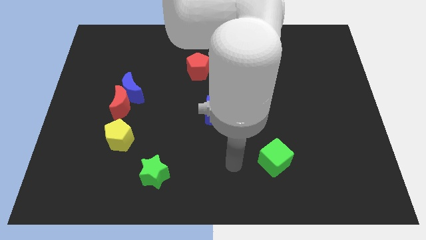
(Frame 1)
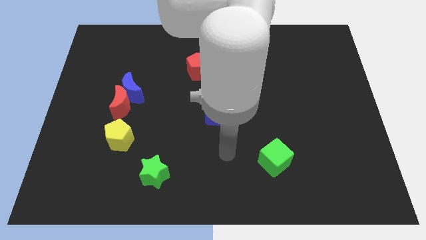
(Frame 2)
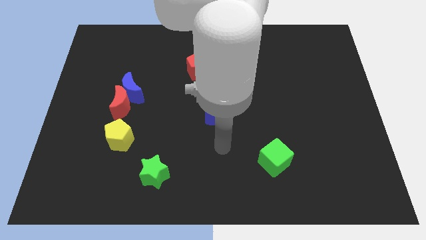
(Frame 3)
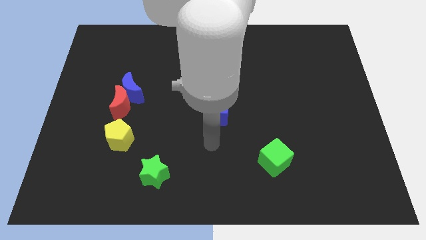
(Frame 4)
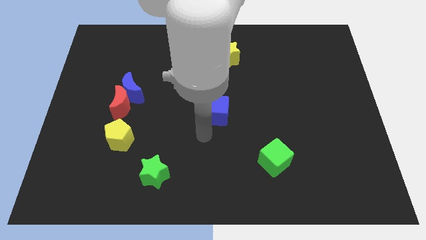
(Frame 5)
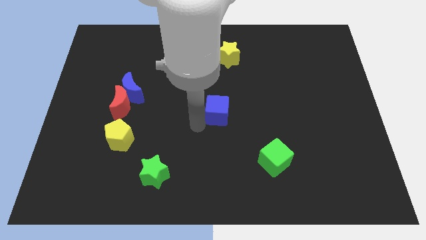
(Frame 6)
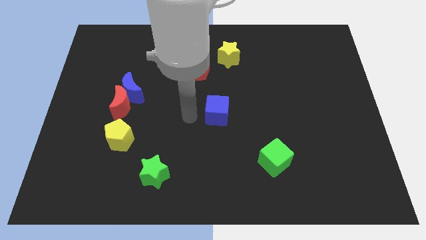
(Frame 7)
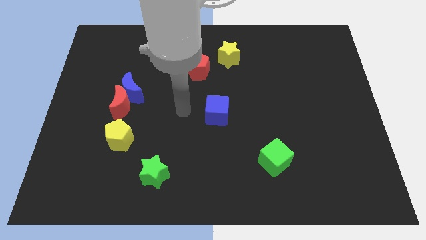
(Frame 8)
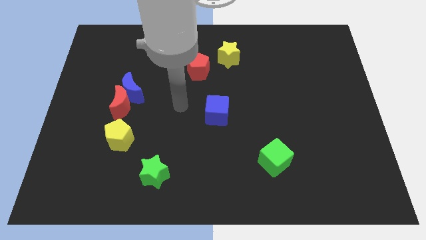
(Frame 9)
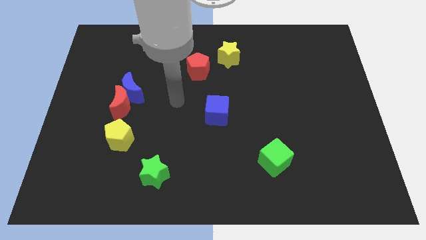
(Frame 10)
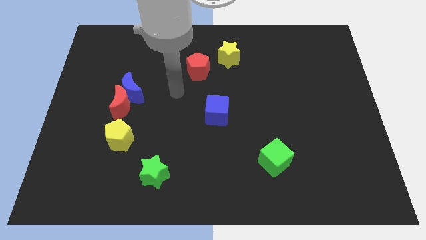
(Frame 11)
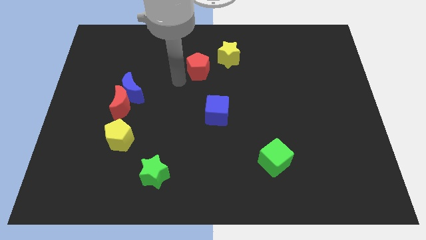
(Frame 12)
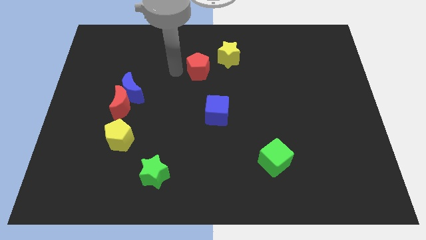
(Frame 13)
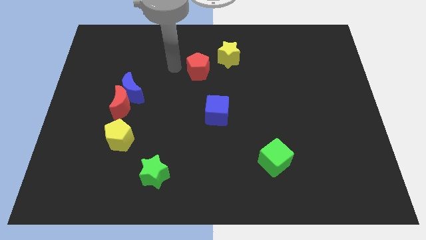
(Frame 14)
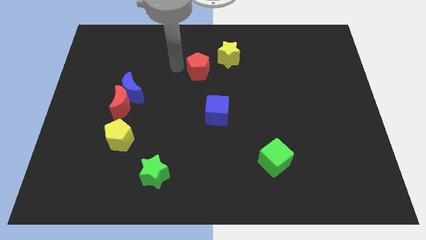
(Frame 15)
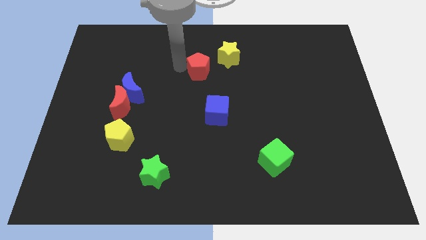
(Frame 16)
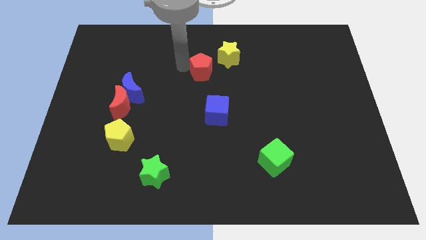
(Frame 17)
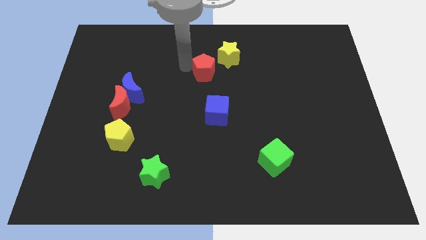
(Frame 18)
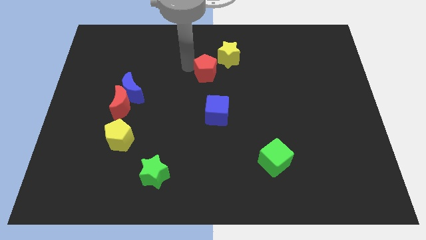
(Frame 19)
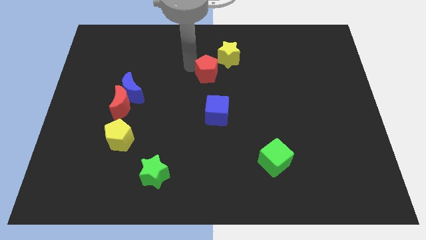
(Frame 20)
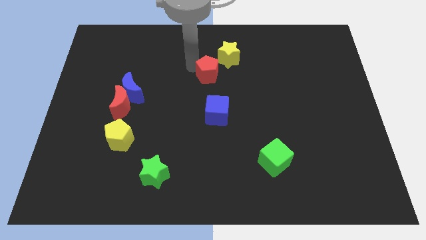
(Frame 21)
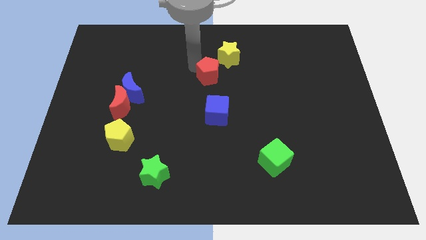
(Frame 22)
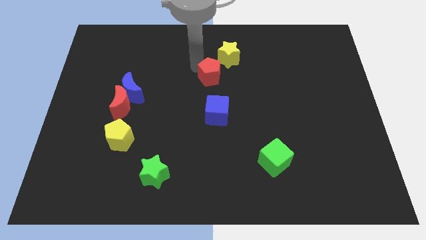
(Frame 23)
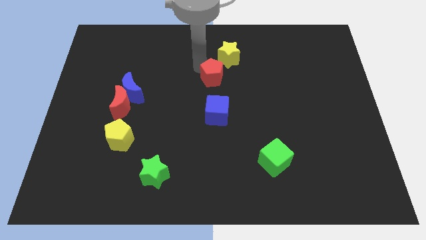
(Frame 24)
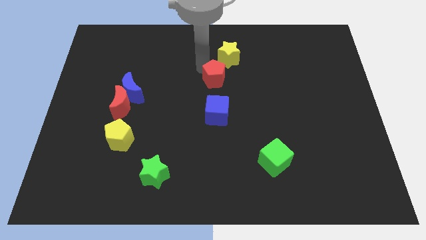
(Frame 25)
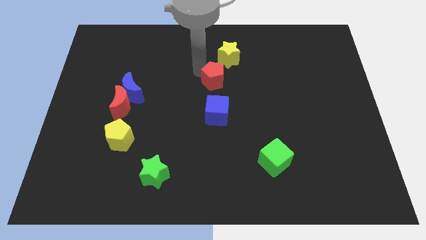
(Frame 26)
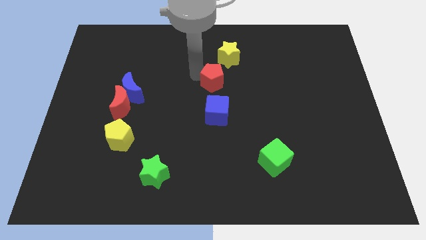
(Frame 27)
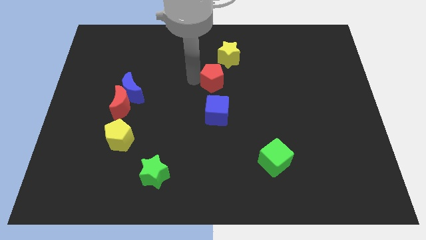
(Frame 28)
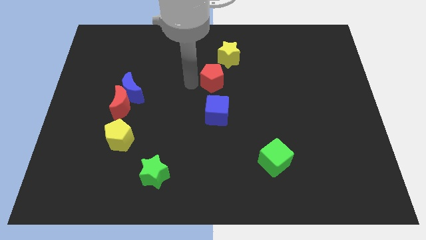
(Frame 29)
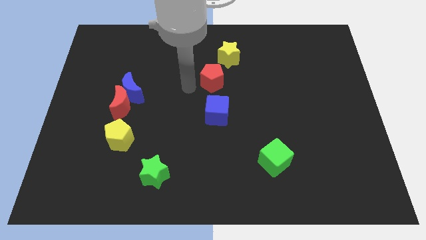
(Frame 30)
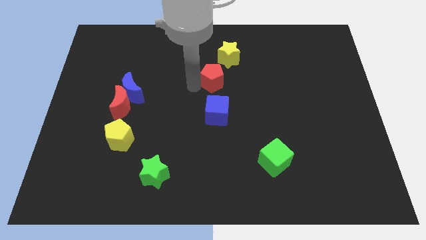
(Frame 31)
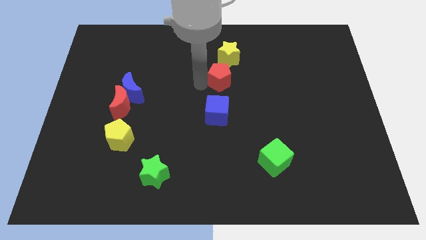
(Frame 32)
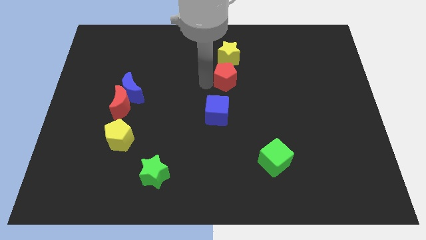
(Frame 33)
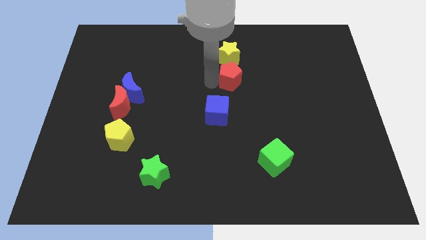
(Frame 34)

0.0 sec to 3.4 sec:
slightly push the red pentagon to the right

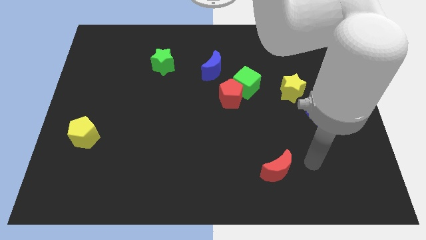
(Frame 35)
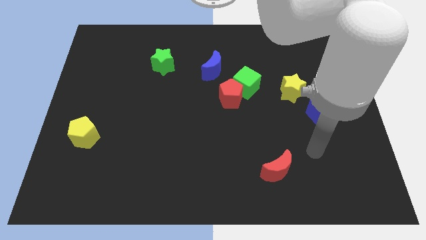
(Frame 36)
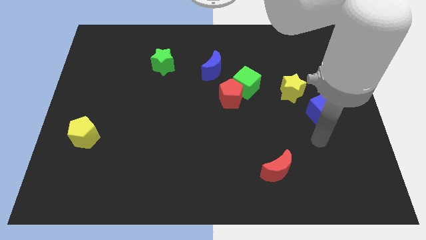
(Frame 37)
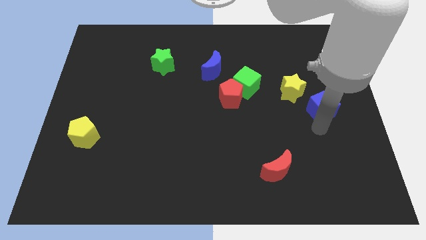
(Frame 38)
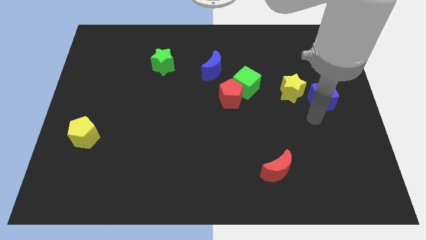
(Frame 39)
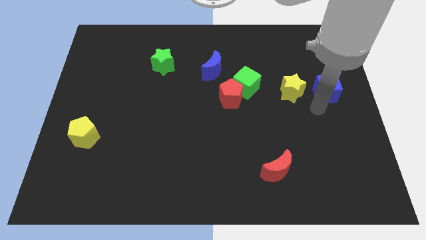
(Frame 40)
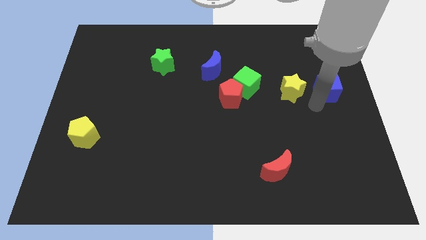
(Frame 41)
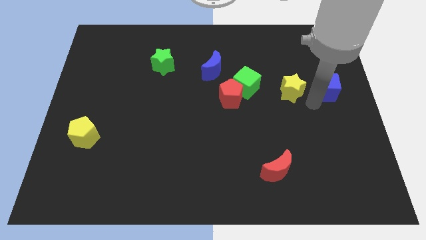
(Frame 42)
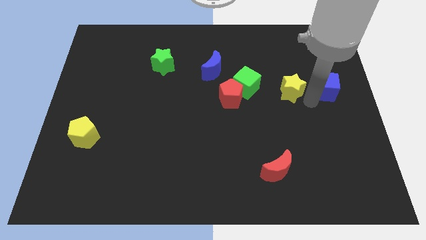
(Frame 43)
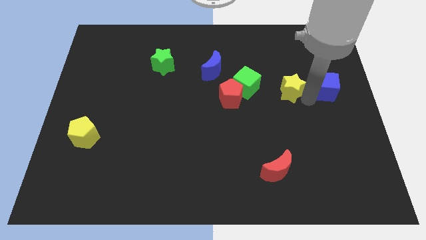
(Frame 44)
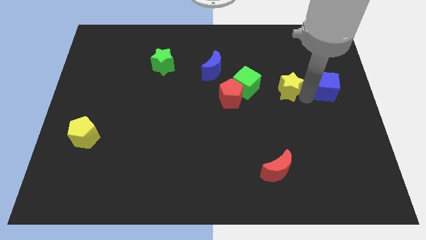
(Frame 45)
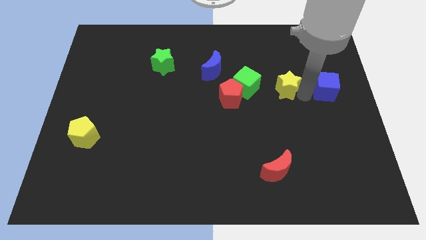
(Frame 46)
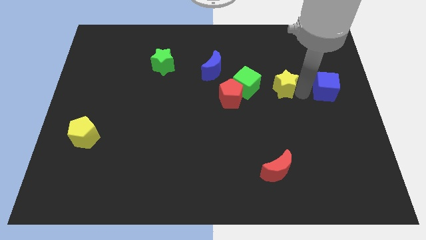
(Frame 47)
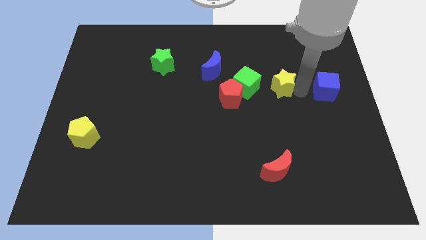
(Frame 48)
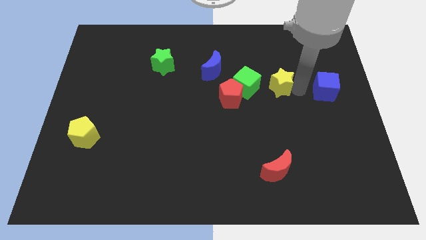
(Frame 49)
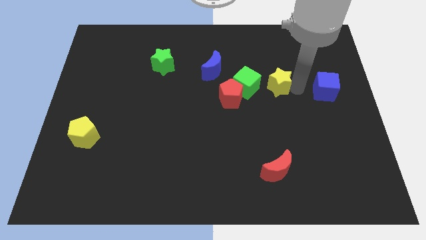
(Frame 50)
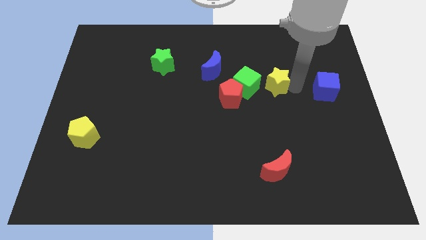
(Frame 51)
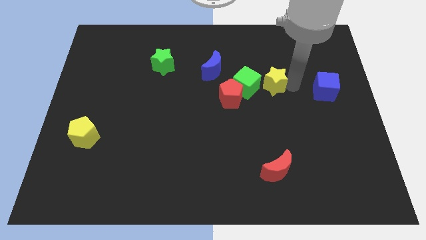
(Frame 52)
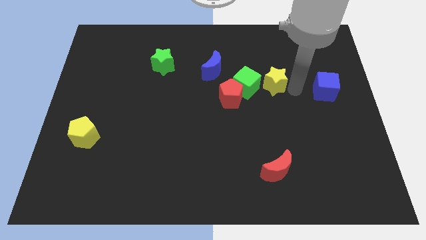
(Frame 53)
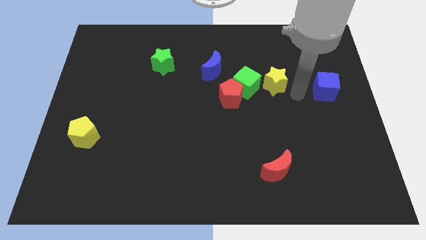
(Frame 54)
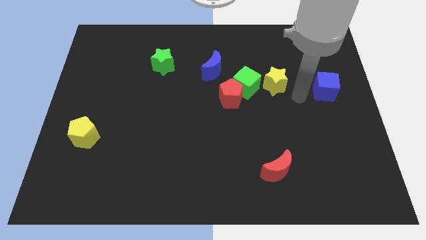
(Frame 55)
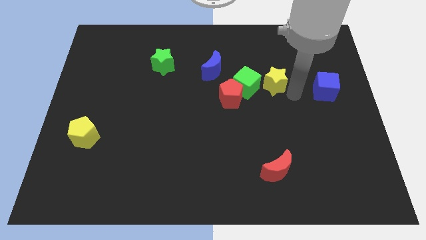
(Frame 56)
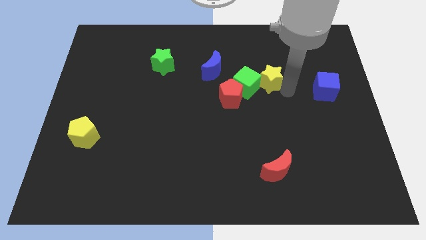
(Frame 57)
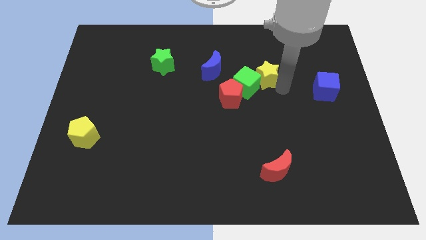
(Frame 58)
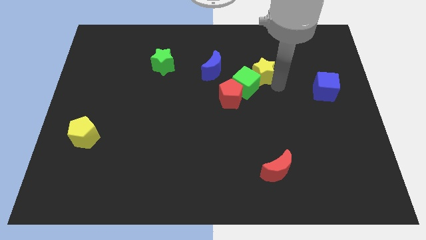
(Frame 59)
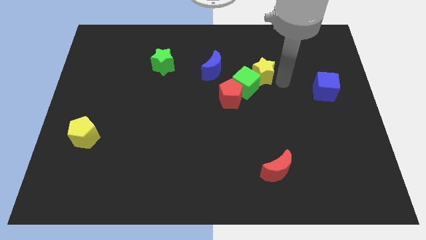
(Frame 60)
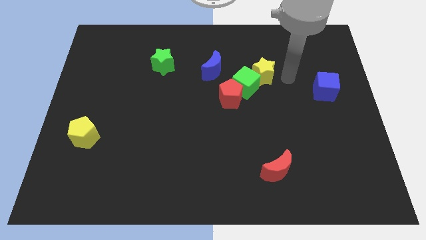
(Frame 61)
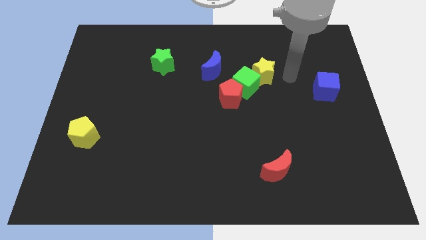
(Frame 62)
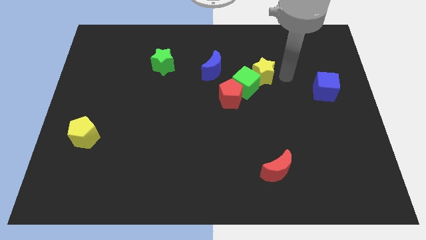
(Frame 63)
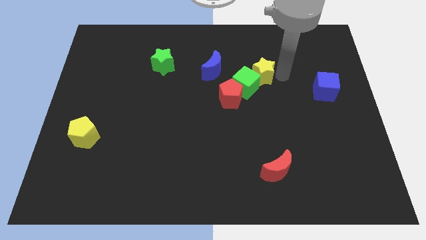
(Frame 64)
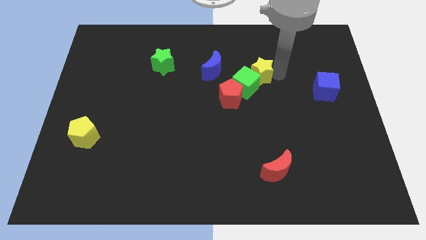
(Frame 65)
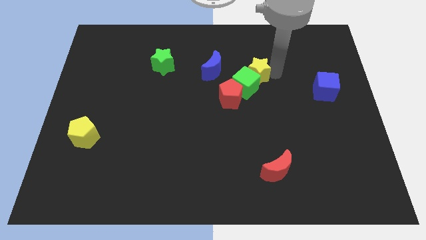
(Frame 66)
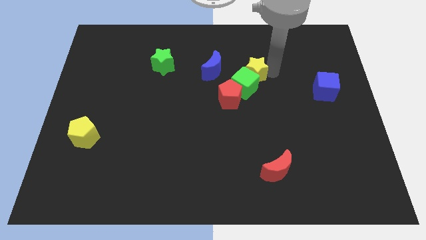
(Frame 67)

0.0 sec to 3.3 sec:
move the yellow star left a little bit

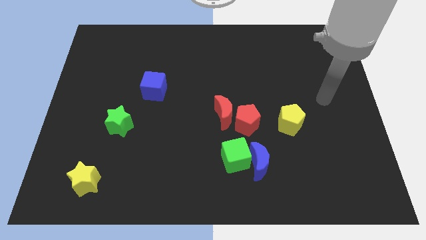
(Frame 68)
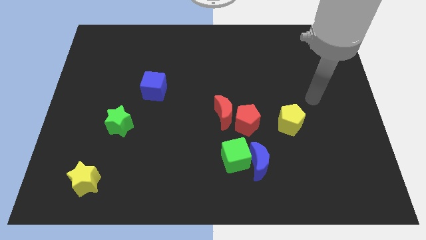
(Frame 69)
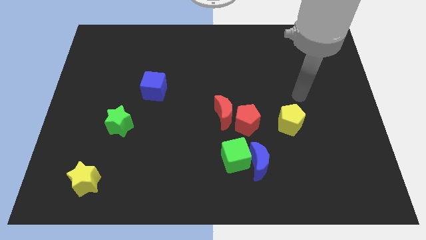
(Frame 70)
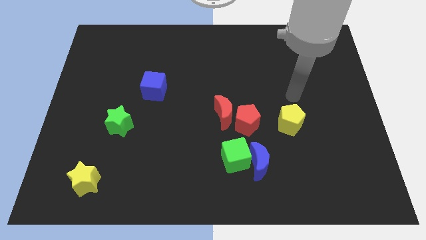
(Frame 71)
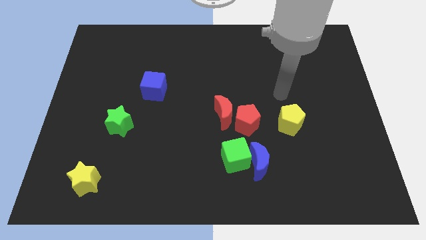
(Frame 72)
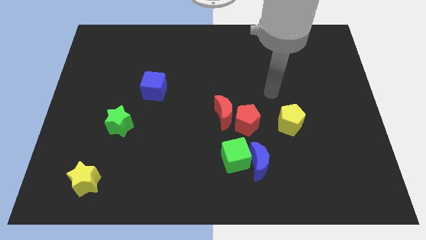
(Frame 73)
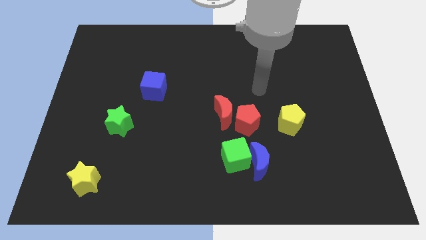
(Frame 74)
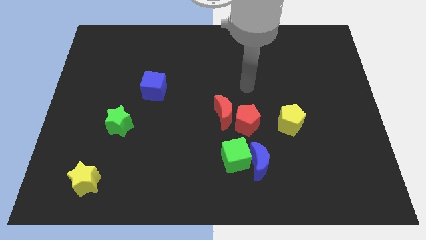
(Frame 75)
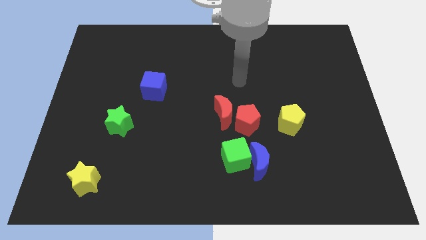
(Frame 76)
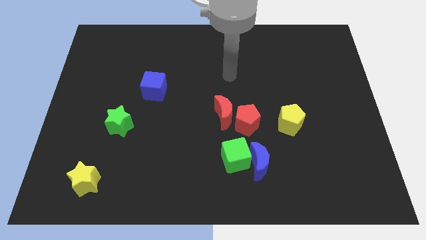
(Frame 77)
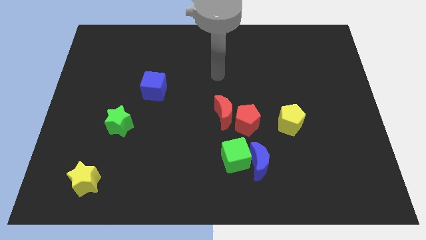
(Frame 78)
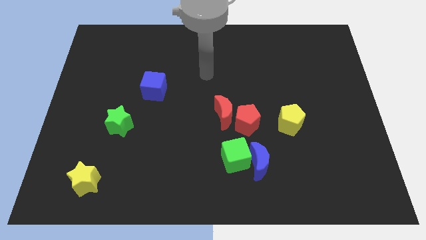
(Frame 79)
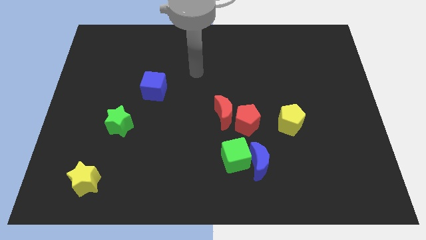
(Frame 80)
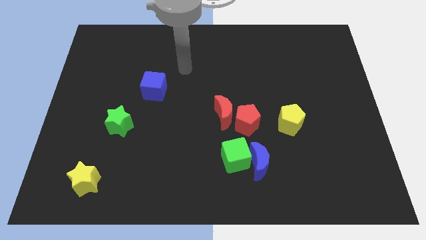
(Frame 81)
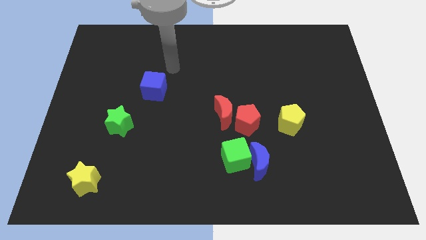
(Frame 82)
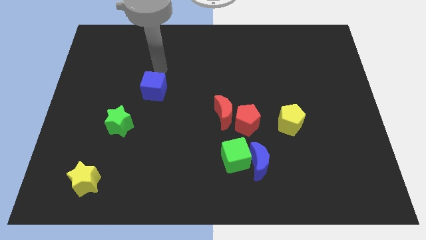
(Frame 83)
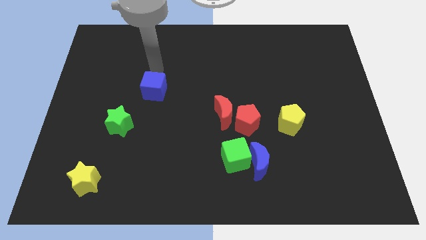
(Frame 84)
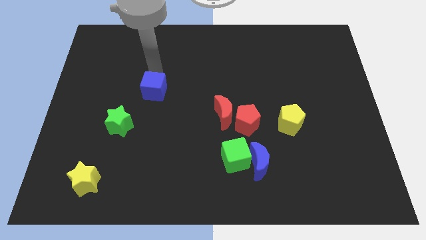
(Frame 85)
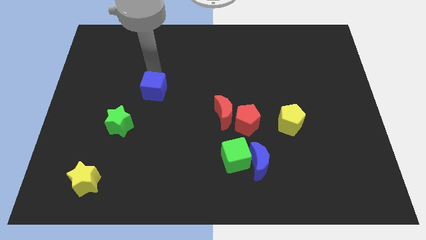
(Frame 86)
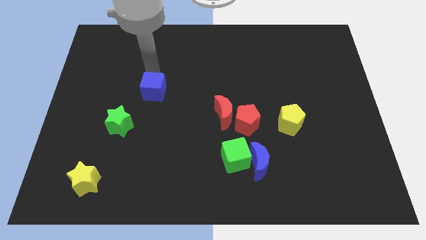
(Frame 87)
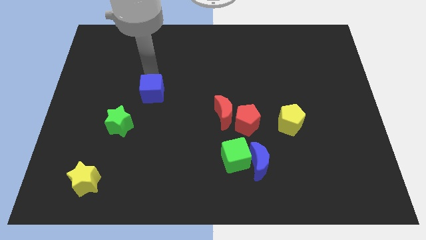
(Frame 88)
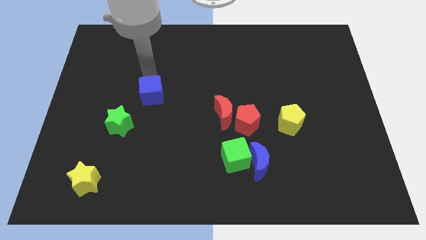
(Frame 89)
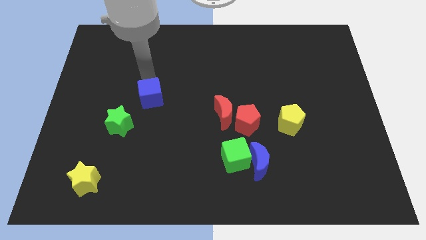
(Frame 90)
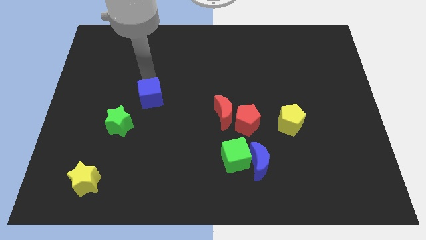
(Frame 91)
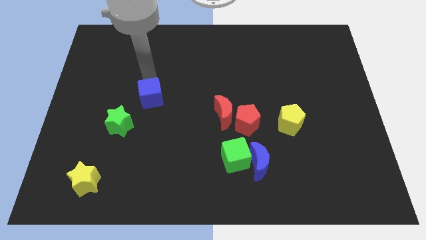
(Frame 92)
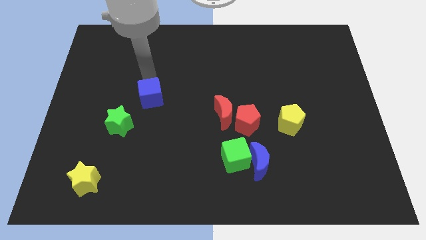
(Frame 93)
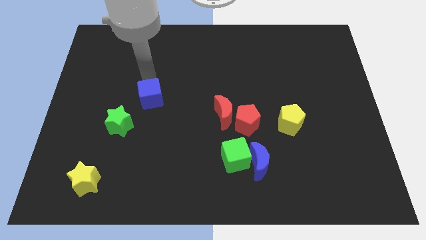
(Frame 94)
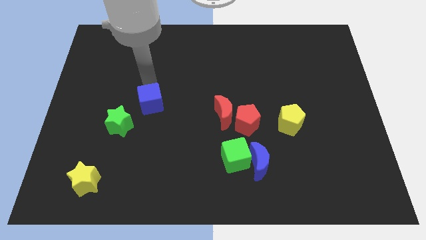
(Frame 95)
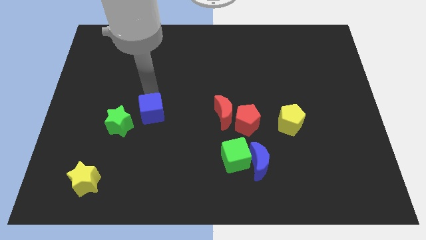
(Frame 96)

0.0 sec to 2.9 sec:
slightly move the blue cube down
